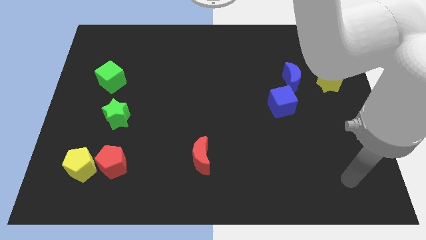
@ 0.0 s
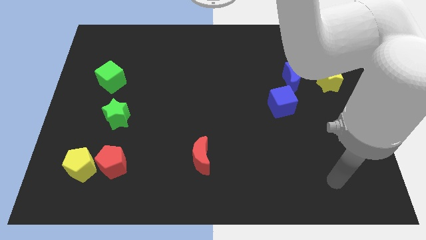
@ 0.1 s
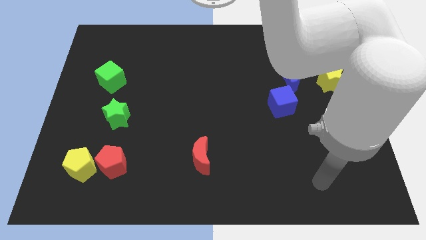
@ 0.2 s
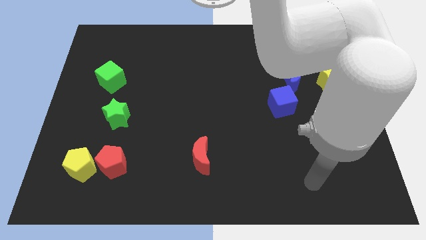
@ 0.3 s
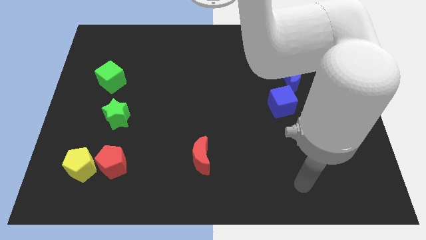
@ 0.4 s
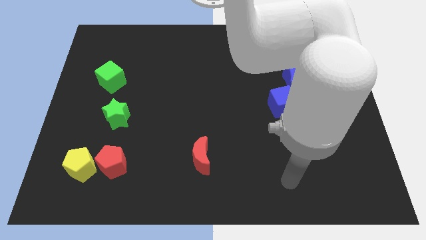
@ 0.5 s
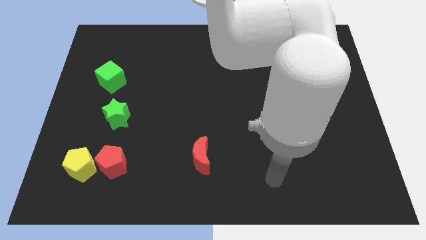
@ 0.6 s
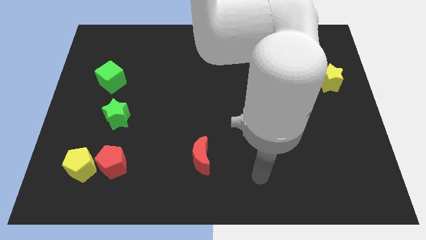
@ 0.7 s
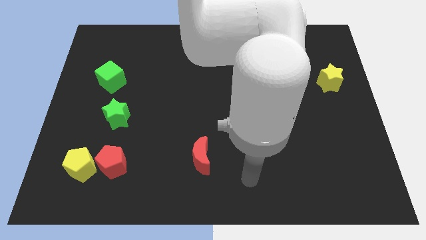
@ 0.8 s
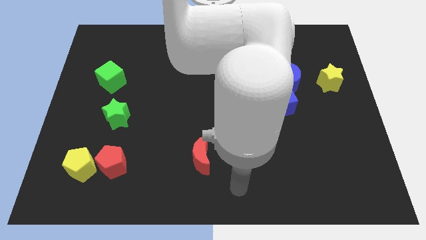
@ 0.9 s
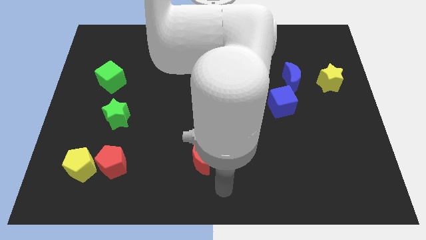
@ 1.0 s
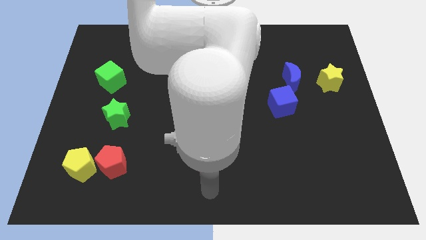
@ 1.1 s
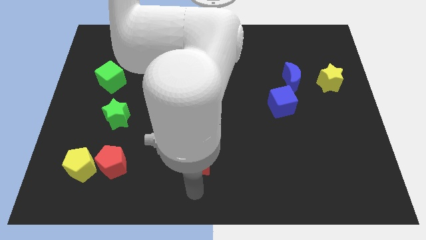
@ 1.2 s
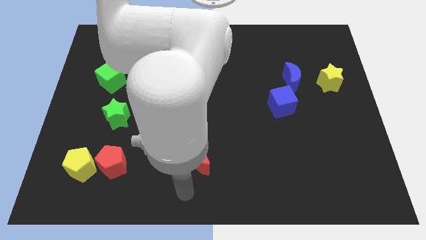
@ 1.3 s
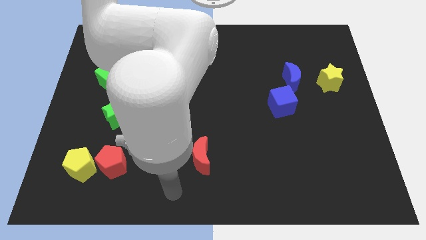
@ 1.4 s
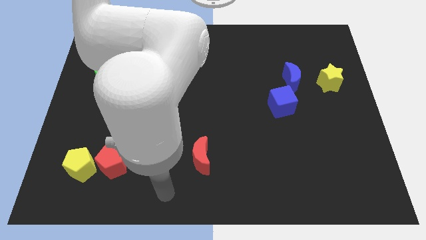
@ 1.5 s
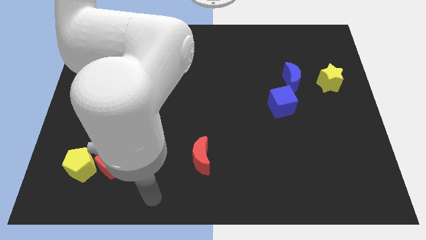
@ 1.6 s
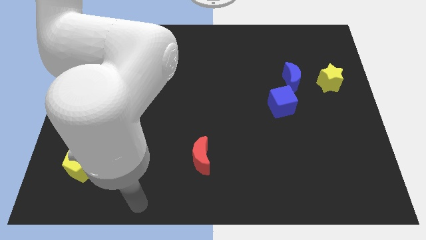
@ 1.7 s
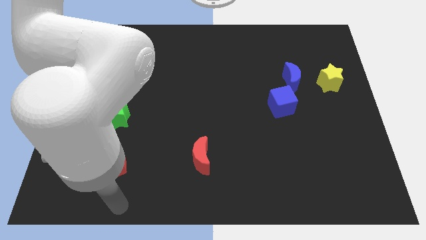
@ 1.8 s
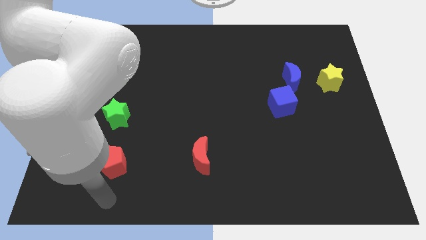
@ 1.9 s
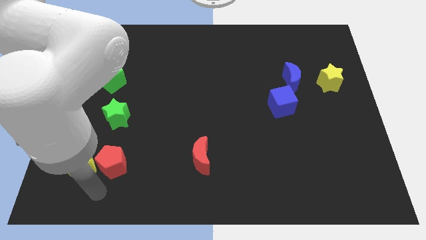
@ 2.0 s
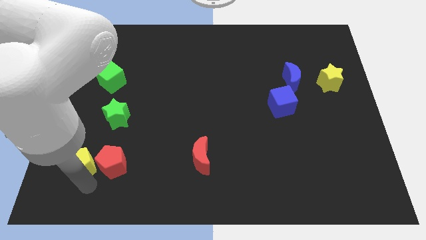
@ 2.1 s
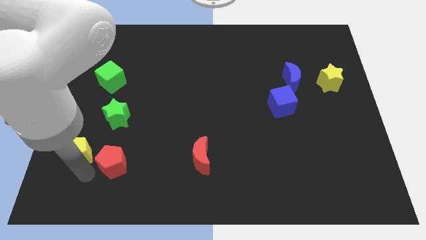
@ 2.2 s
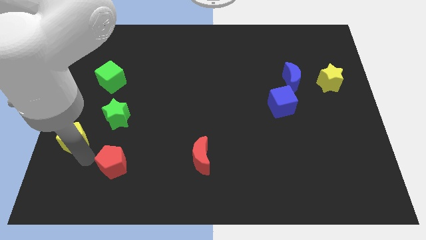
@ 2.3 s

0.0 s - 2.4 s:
move the red pentagon away from the yellow pentagon

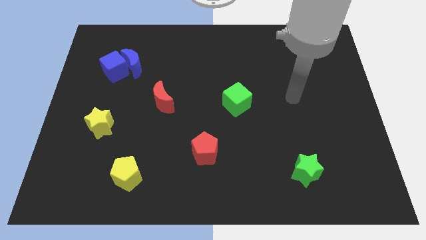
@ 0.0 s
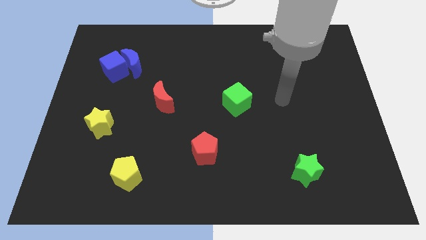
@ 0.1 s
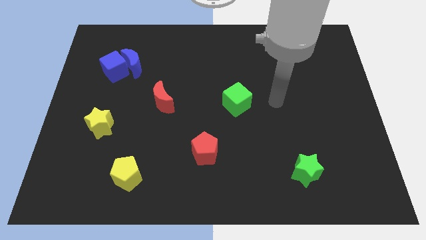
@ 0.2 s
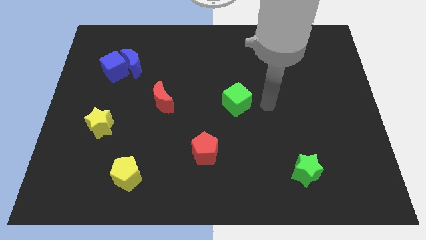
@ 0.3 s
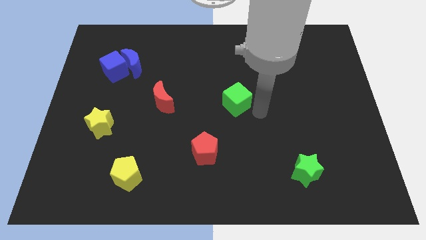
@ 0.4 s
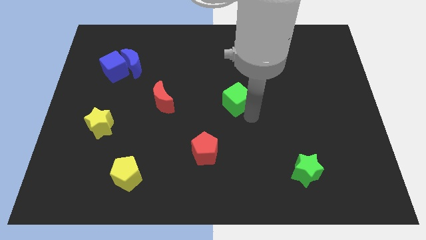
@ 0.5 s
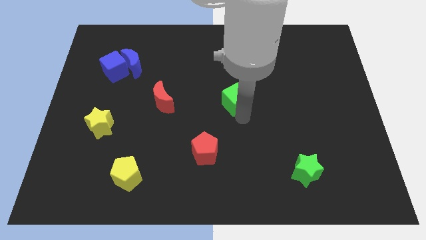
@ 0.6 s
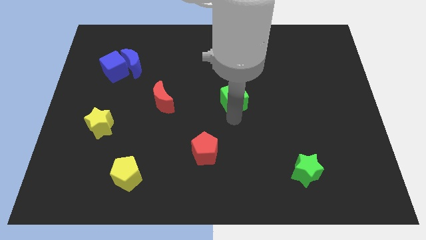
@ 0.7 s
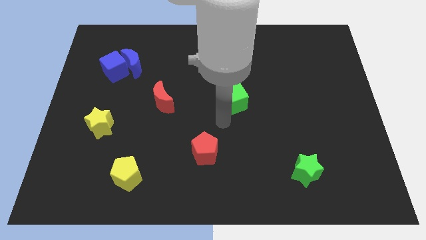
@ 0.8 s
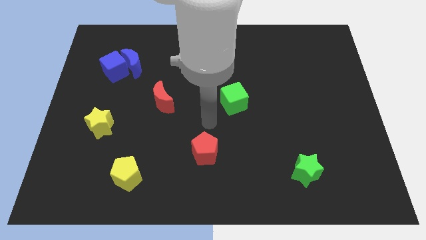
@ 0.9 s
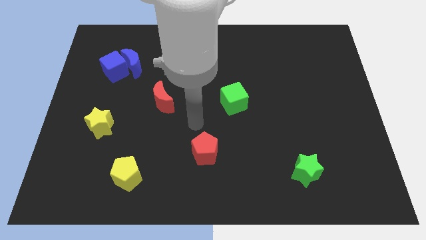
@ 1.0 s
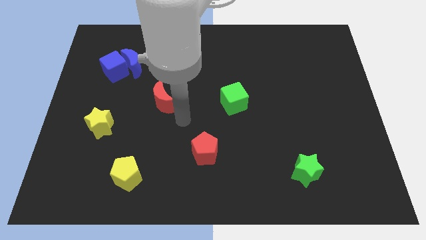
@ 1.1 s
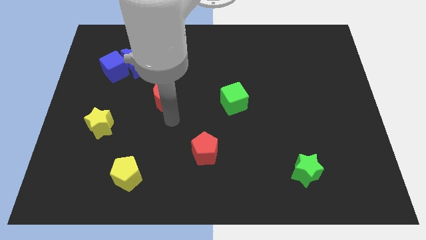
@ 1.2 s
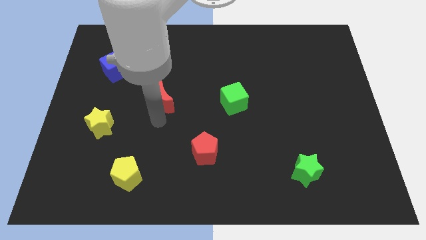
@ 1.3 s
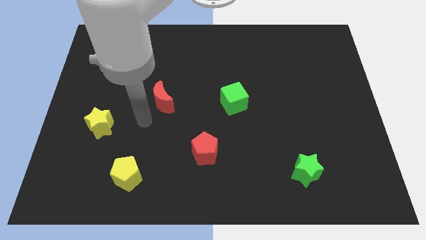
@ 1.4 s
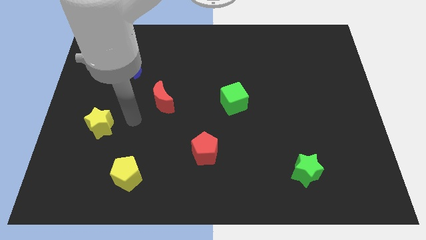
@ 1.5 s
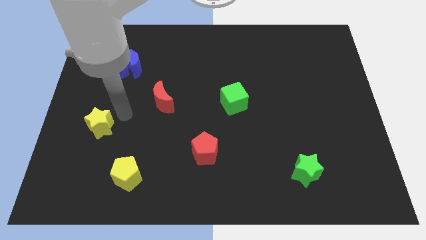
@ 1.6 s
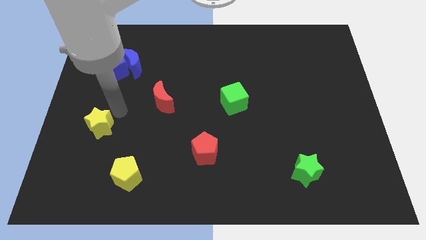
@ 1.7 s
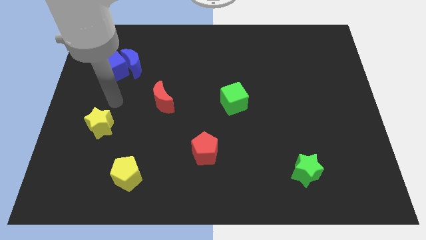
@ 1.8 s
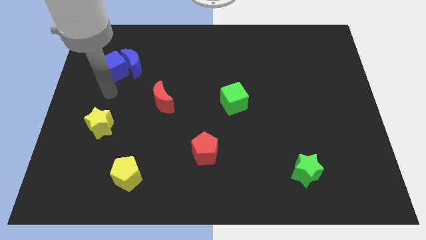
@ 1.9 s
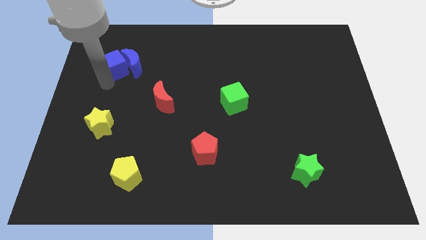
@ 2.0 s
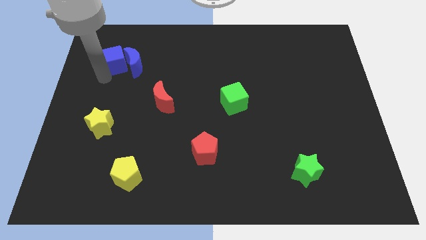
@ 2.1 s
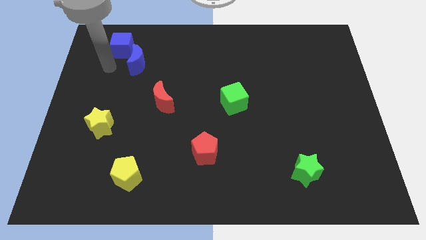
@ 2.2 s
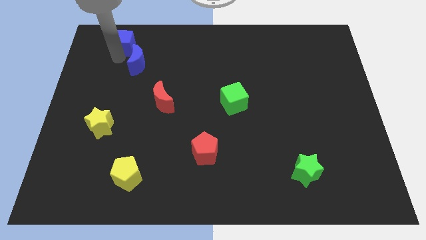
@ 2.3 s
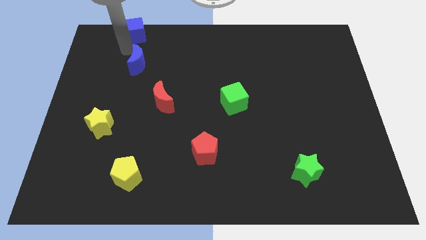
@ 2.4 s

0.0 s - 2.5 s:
separate the blue moon from the blue cube

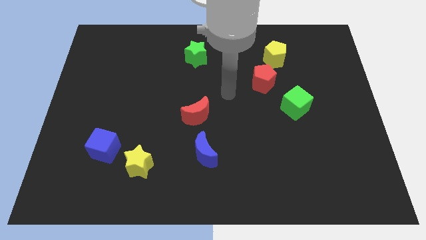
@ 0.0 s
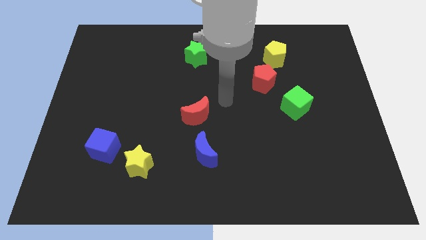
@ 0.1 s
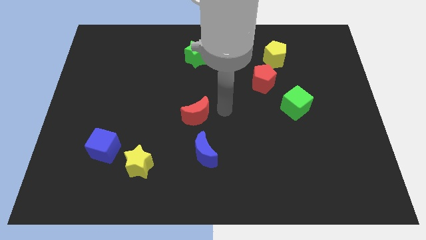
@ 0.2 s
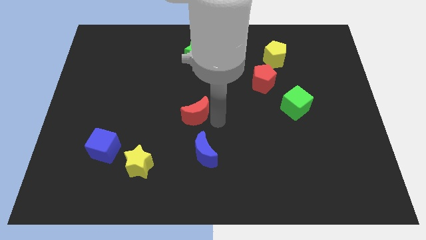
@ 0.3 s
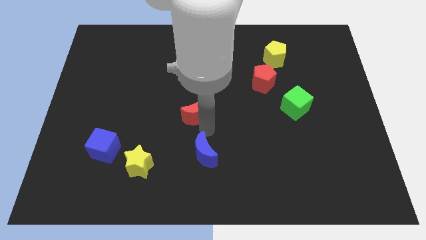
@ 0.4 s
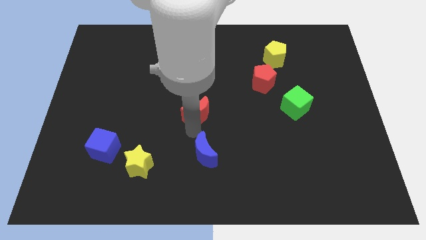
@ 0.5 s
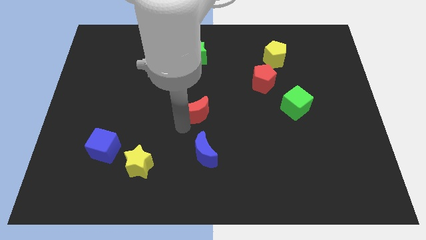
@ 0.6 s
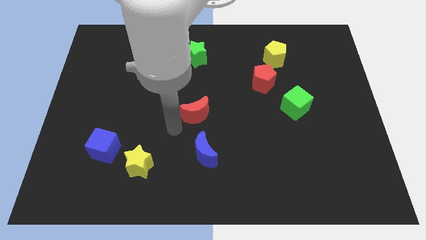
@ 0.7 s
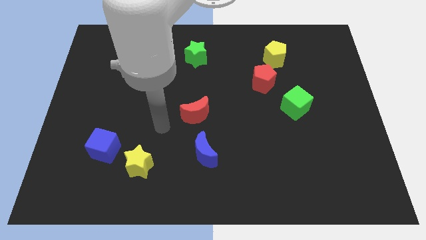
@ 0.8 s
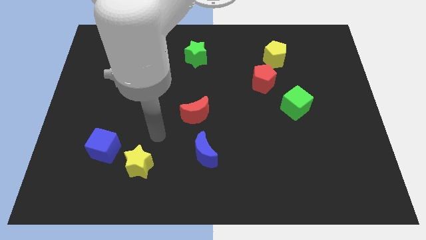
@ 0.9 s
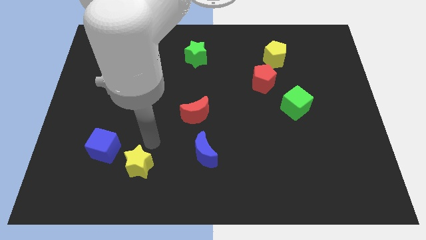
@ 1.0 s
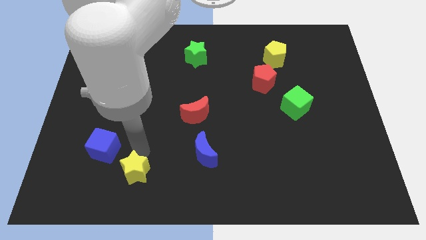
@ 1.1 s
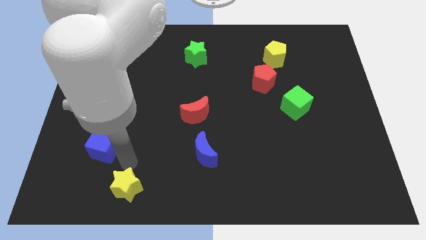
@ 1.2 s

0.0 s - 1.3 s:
separate the blue cube from the yellow star

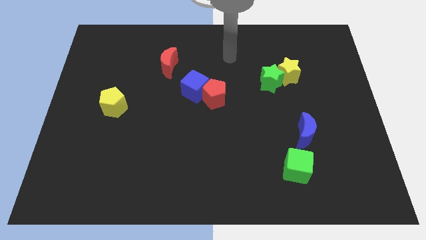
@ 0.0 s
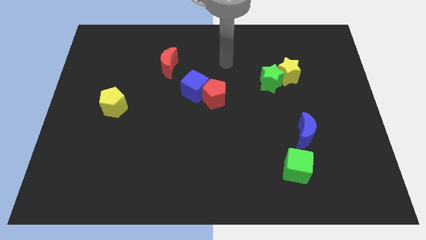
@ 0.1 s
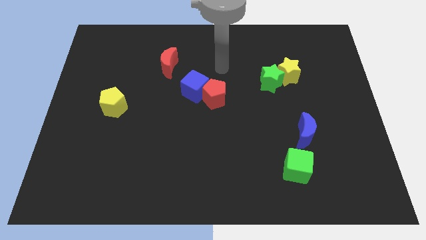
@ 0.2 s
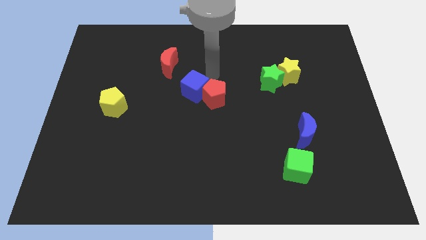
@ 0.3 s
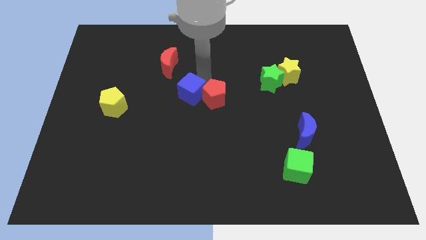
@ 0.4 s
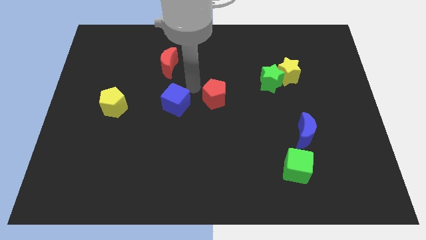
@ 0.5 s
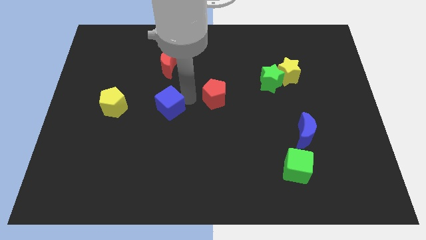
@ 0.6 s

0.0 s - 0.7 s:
move the red pentagon away from the blue cube

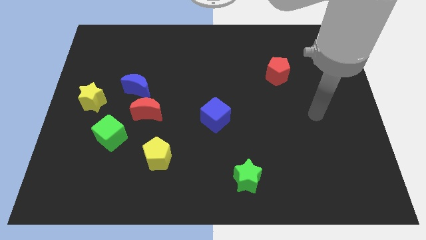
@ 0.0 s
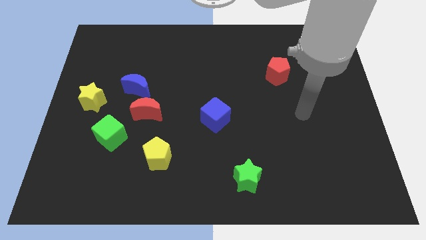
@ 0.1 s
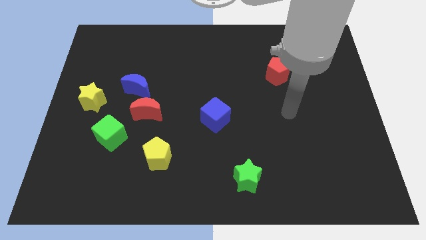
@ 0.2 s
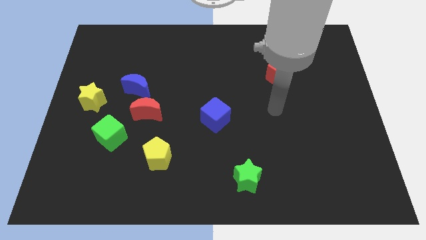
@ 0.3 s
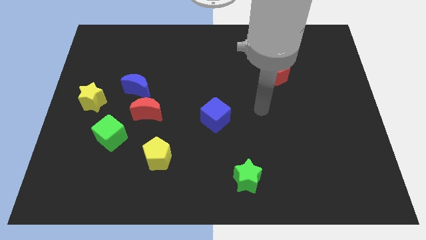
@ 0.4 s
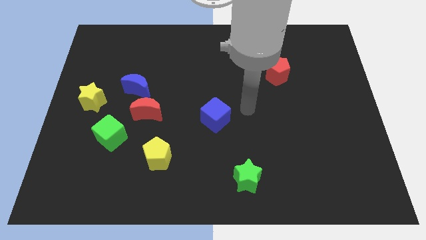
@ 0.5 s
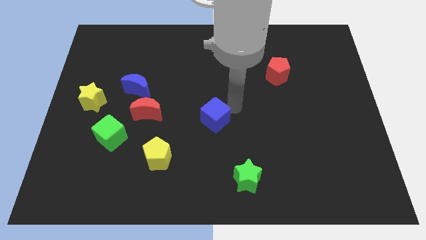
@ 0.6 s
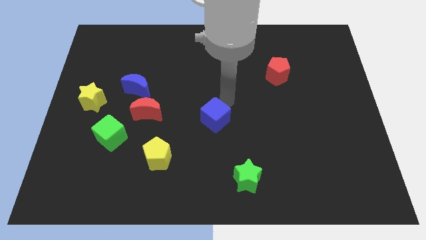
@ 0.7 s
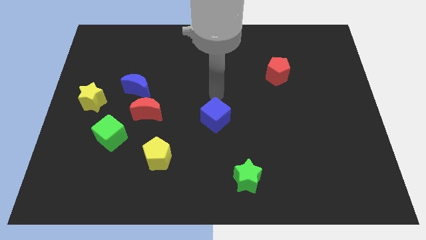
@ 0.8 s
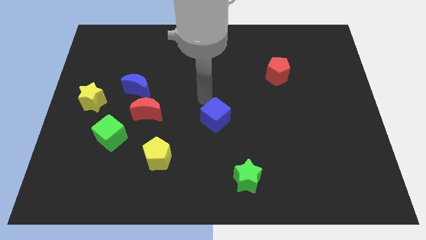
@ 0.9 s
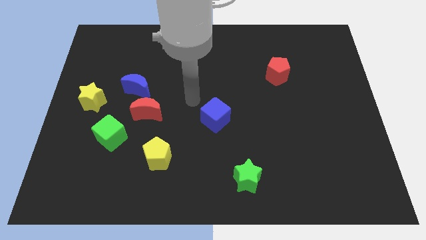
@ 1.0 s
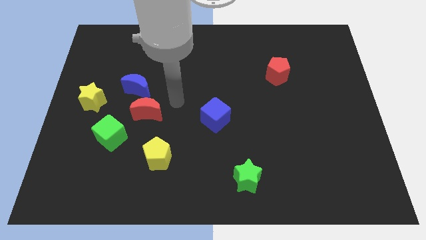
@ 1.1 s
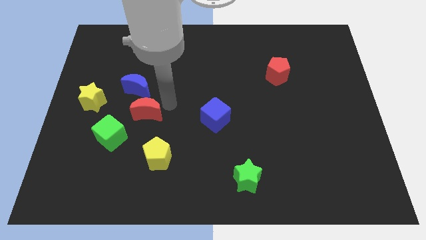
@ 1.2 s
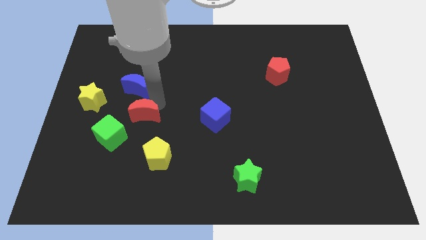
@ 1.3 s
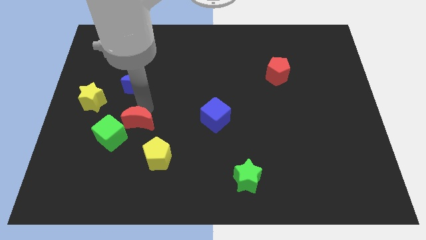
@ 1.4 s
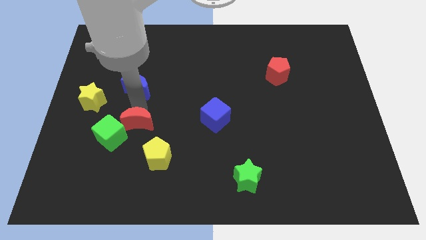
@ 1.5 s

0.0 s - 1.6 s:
move the blue moon away from the red moon

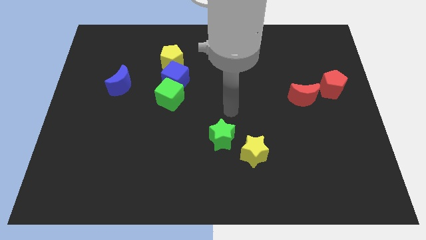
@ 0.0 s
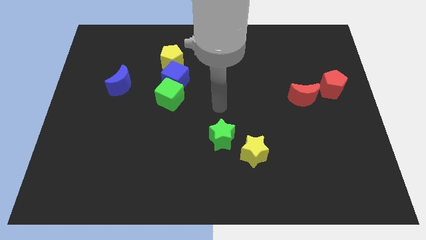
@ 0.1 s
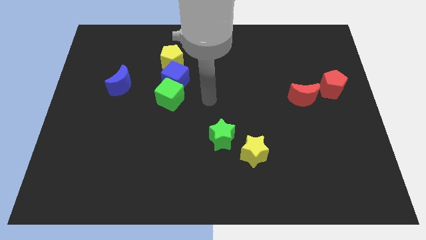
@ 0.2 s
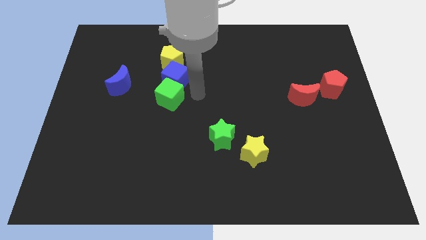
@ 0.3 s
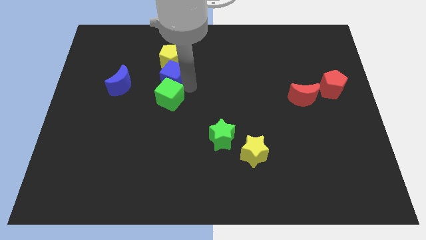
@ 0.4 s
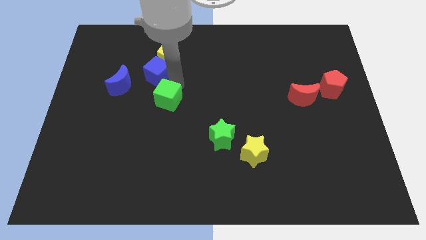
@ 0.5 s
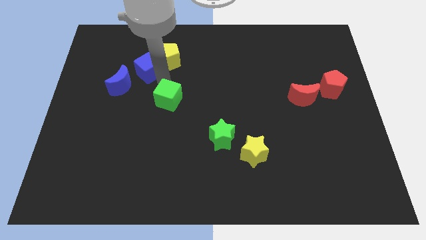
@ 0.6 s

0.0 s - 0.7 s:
move the green cube away from the blue cube

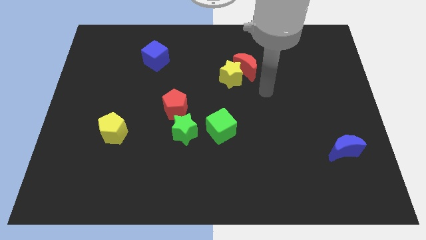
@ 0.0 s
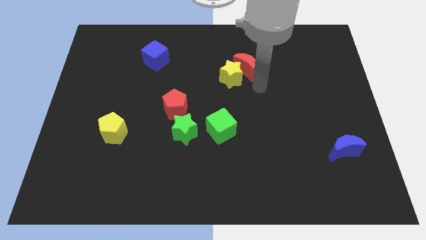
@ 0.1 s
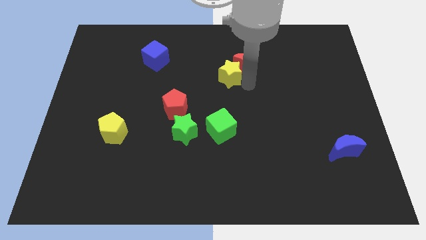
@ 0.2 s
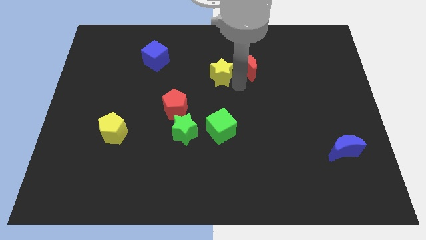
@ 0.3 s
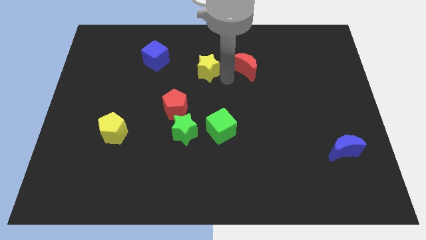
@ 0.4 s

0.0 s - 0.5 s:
pull the red moon apart from the yellow star
